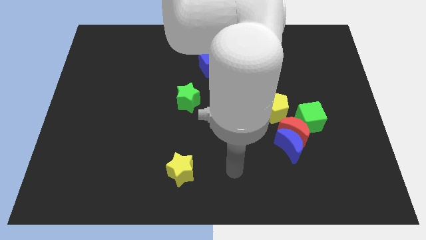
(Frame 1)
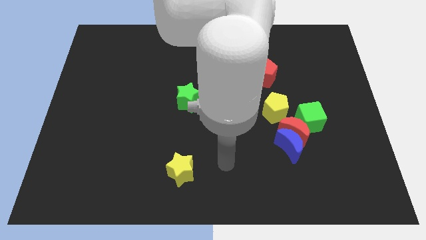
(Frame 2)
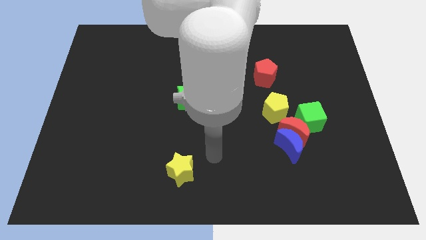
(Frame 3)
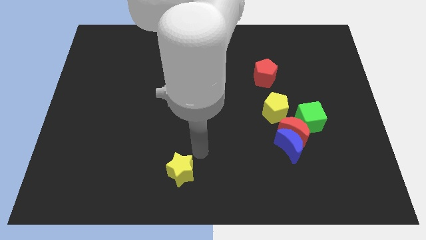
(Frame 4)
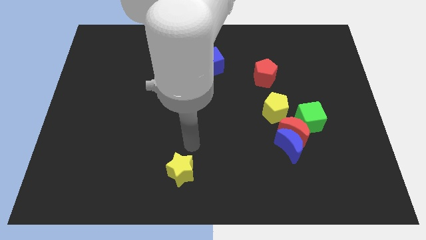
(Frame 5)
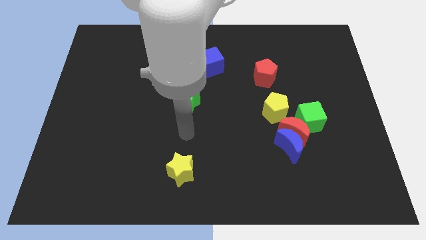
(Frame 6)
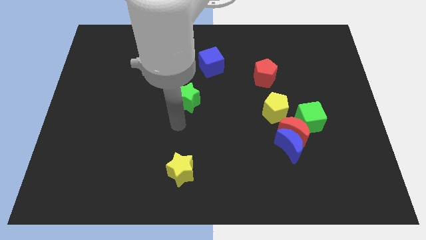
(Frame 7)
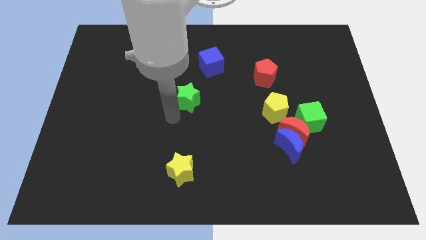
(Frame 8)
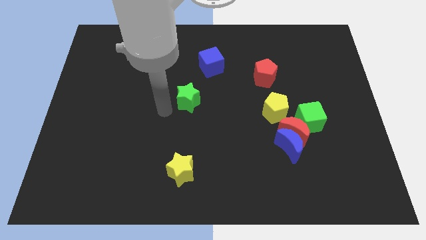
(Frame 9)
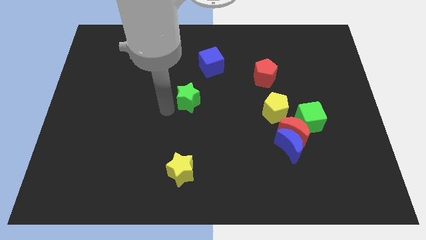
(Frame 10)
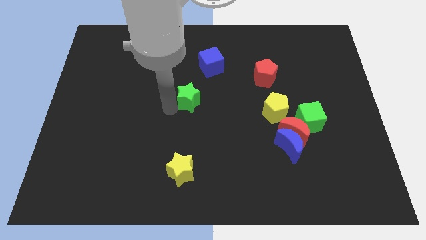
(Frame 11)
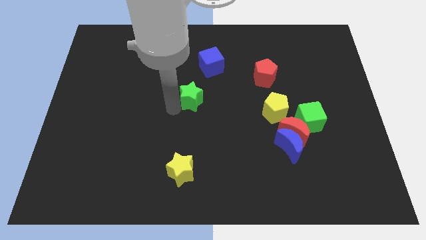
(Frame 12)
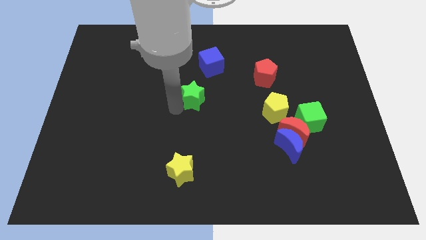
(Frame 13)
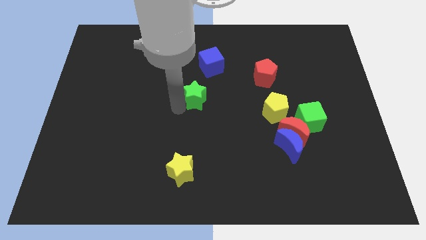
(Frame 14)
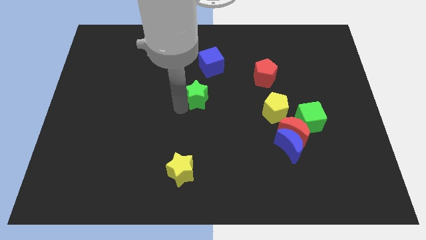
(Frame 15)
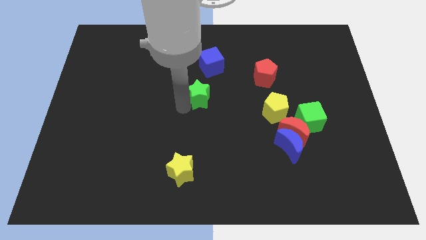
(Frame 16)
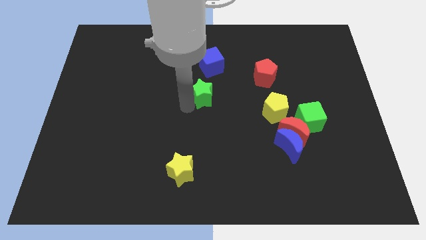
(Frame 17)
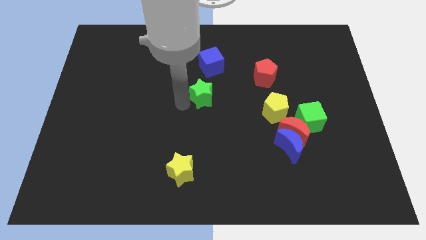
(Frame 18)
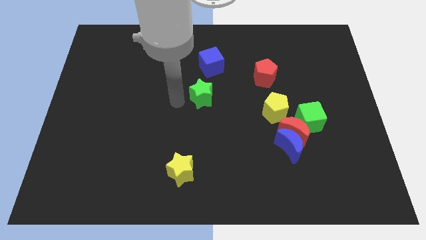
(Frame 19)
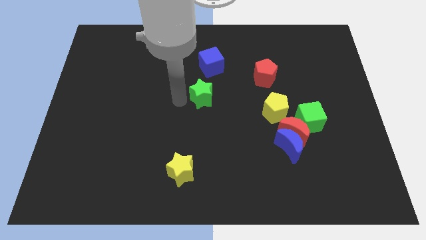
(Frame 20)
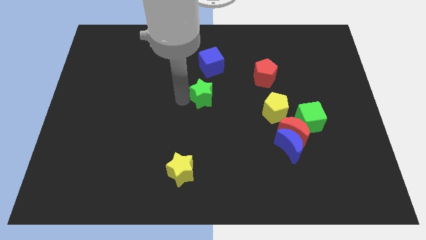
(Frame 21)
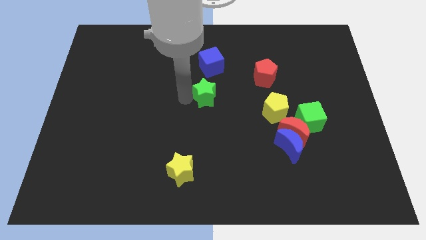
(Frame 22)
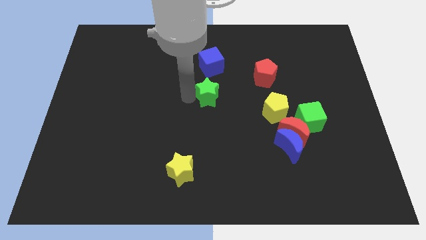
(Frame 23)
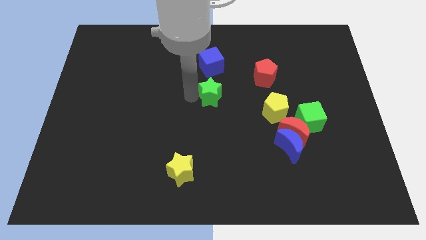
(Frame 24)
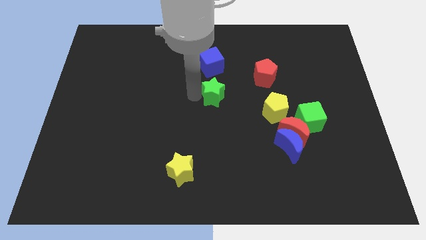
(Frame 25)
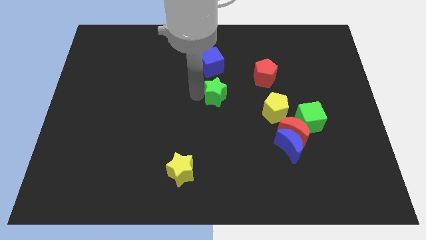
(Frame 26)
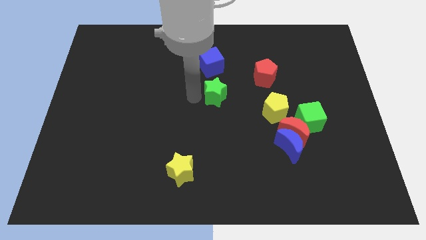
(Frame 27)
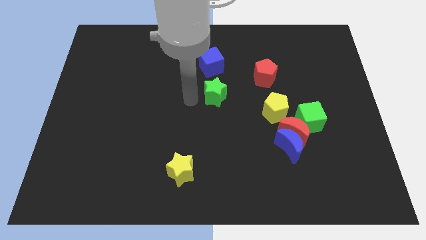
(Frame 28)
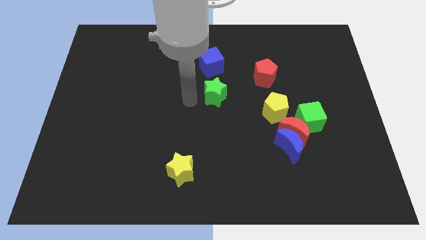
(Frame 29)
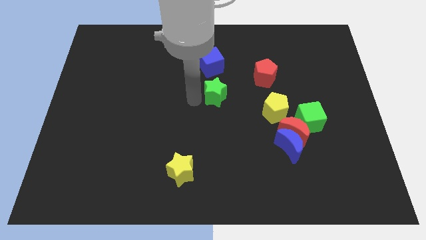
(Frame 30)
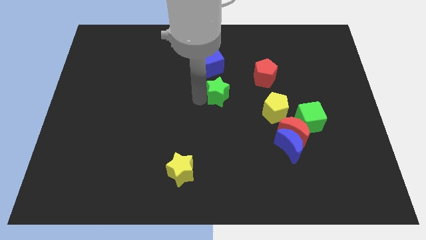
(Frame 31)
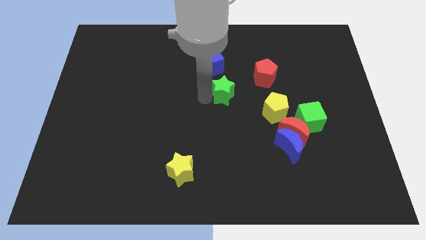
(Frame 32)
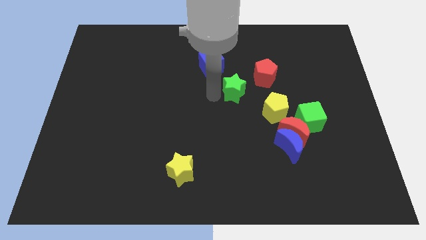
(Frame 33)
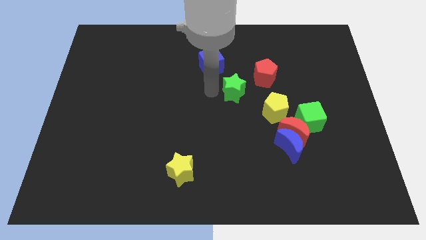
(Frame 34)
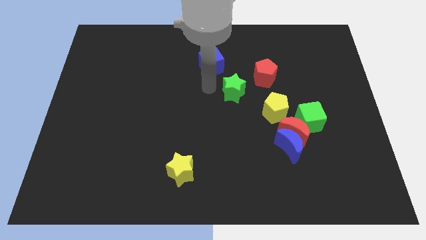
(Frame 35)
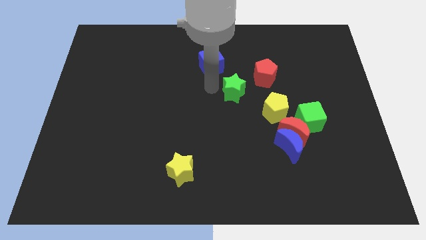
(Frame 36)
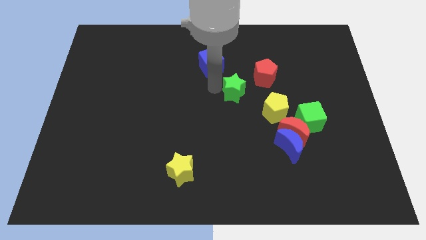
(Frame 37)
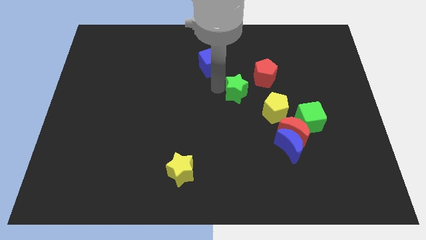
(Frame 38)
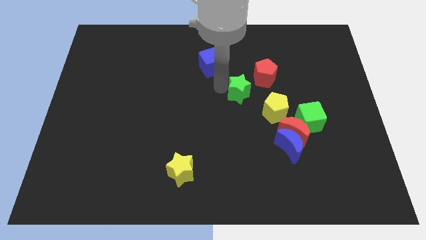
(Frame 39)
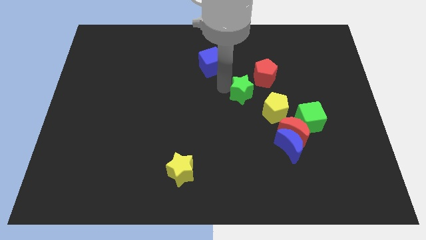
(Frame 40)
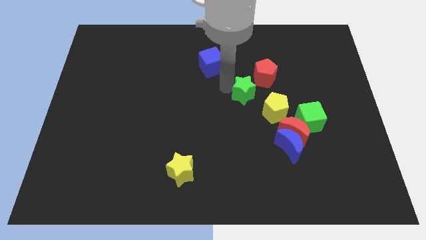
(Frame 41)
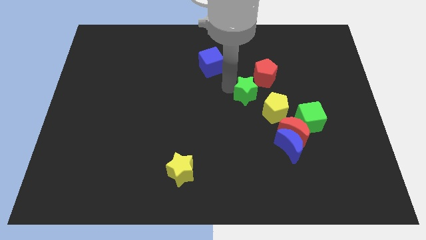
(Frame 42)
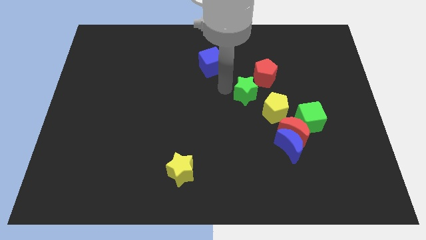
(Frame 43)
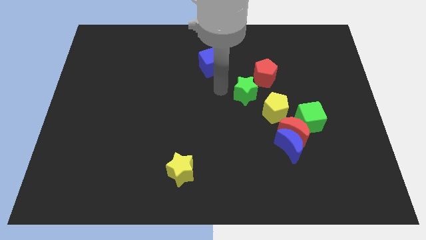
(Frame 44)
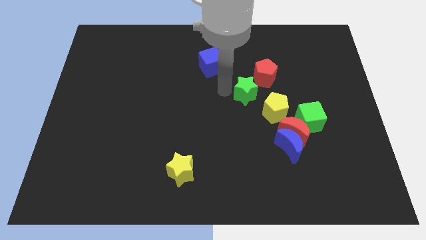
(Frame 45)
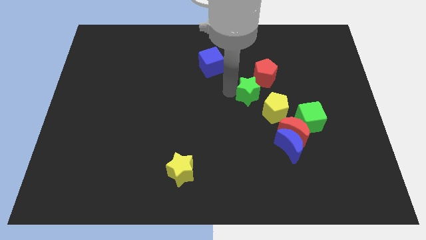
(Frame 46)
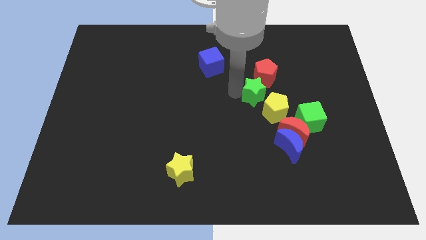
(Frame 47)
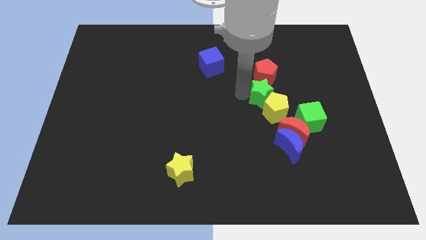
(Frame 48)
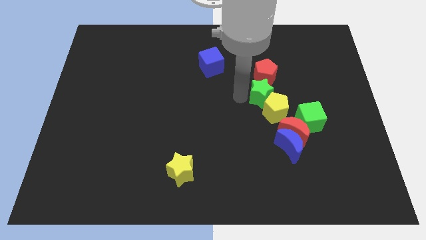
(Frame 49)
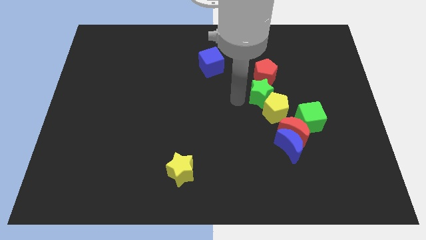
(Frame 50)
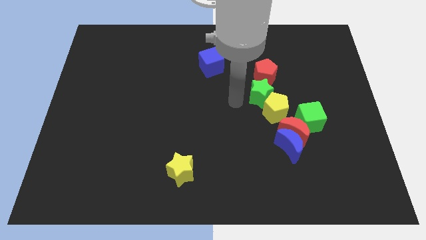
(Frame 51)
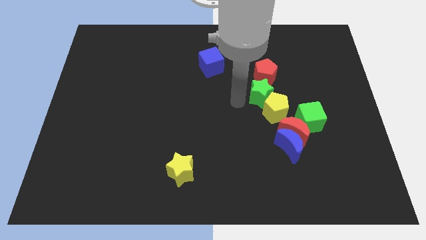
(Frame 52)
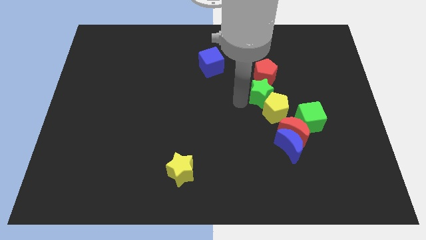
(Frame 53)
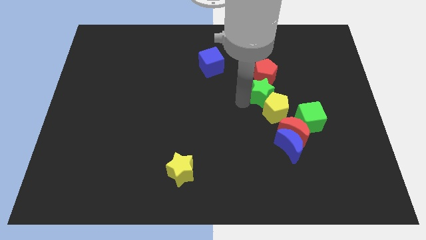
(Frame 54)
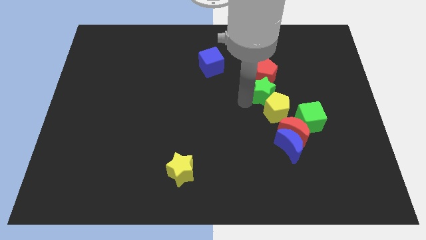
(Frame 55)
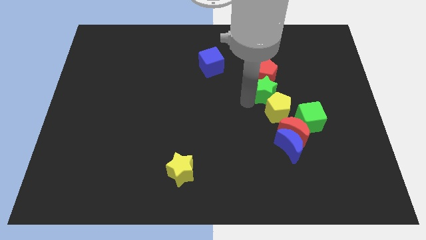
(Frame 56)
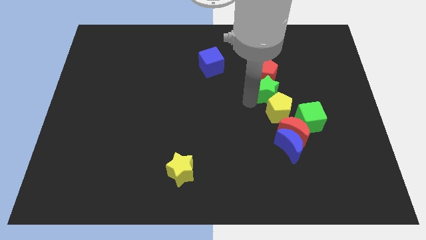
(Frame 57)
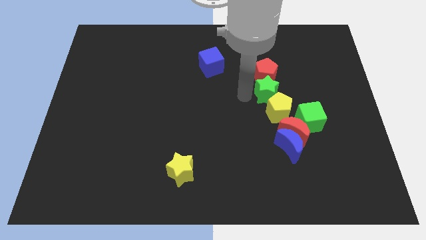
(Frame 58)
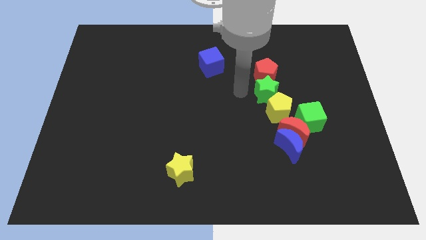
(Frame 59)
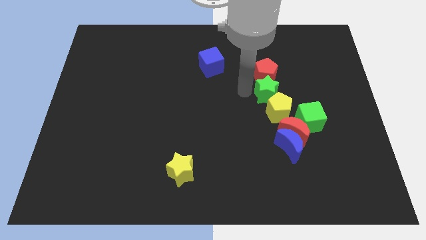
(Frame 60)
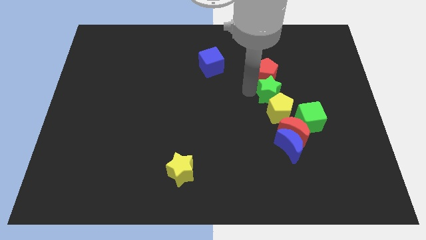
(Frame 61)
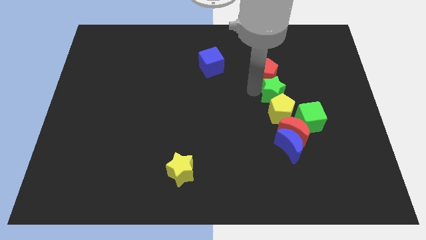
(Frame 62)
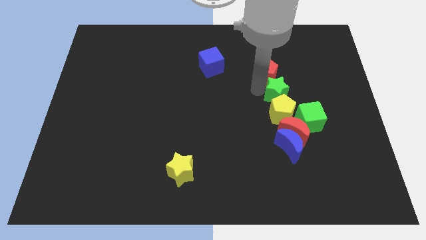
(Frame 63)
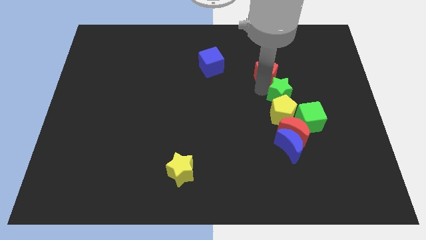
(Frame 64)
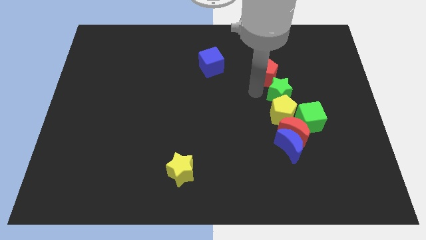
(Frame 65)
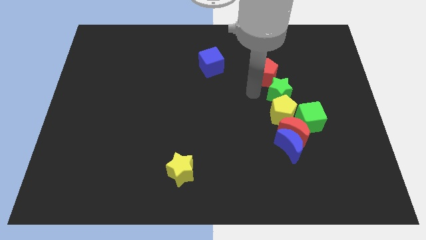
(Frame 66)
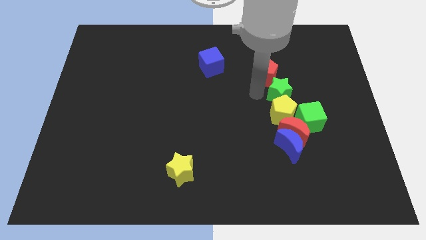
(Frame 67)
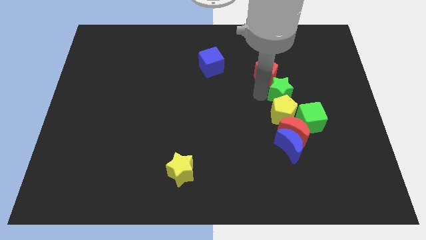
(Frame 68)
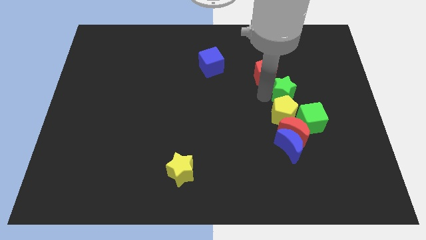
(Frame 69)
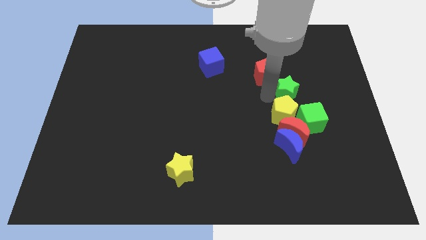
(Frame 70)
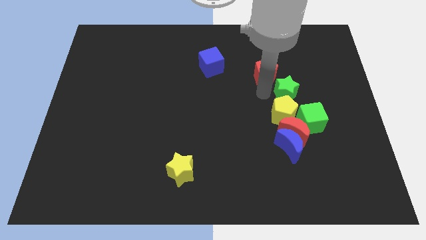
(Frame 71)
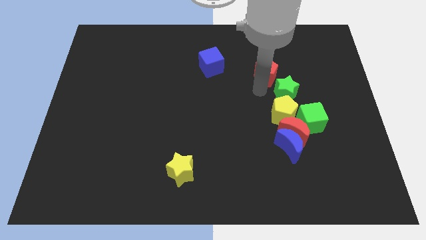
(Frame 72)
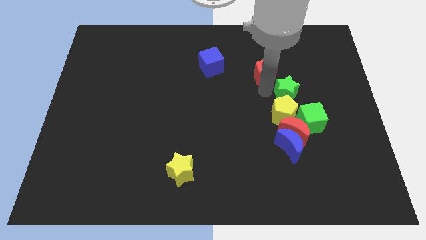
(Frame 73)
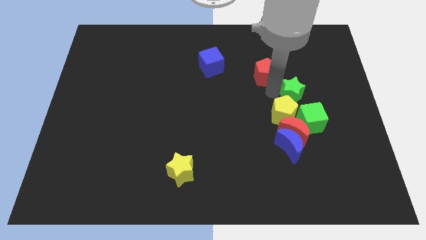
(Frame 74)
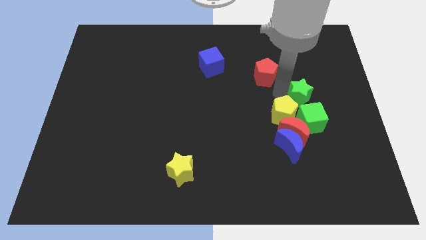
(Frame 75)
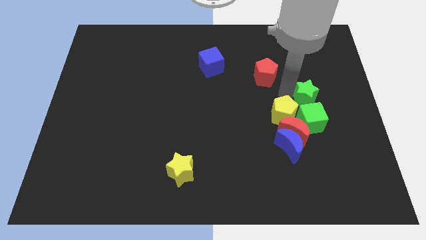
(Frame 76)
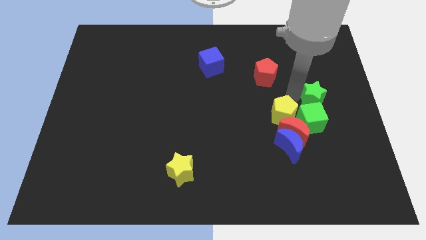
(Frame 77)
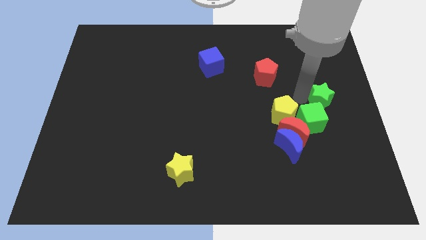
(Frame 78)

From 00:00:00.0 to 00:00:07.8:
slide the green star to the right side
